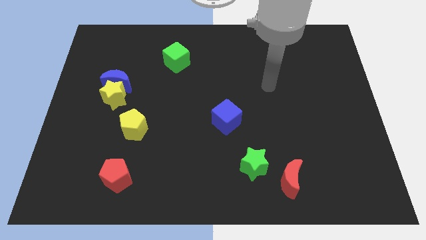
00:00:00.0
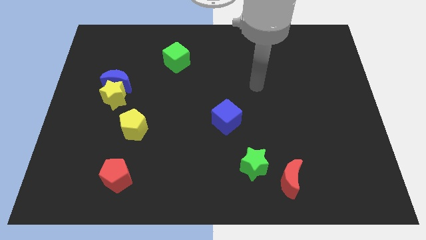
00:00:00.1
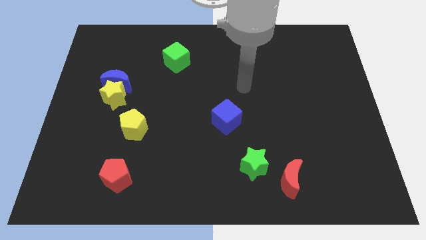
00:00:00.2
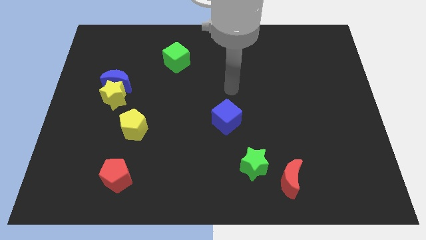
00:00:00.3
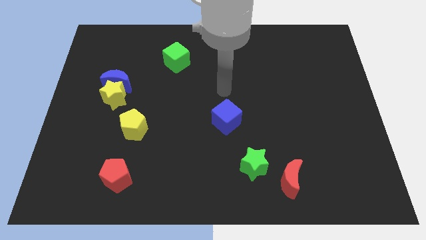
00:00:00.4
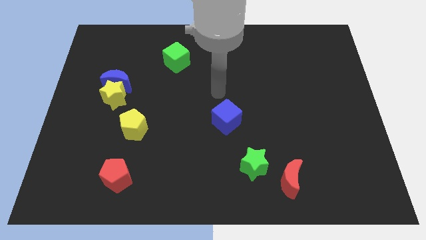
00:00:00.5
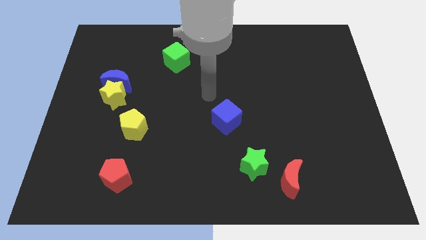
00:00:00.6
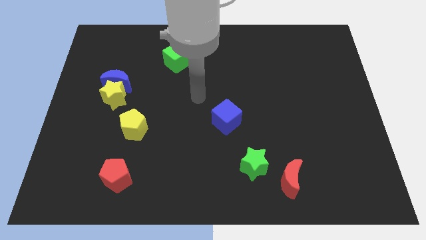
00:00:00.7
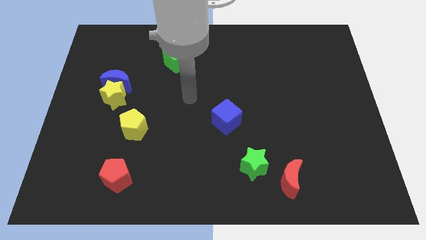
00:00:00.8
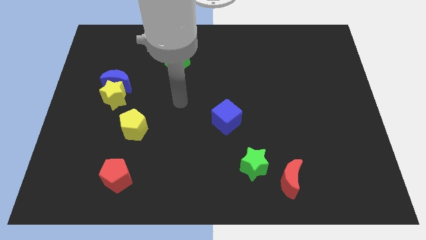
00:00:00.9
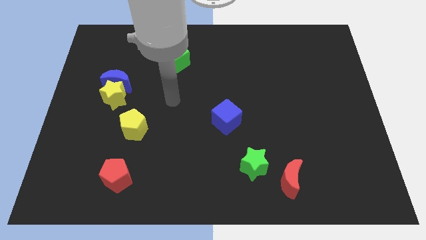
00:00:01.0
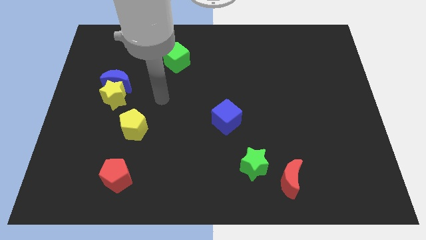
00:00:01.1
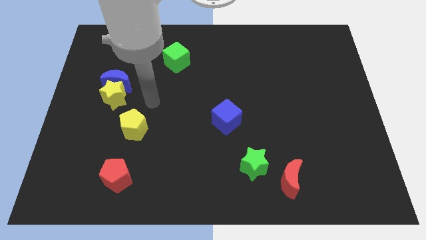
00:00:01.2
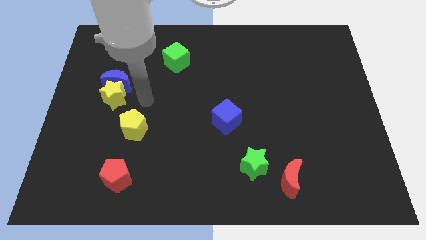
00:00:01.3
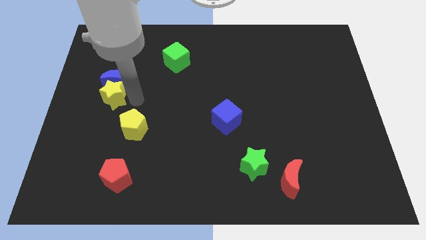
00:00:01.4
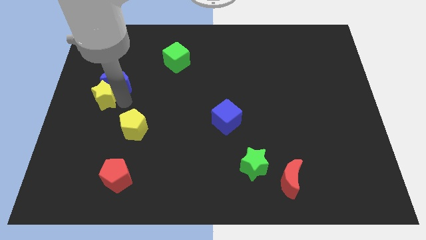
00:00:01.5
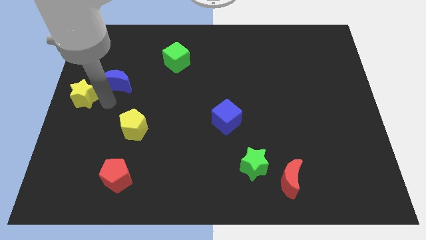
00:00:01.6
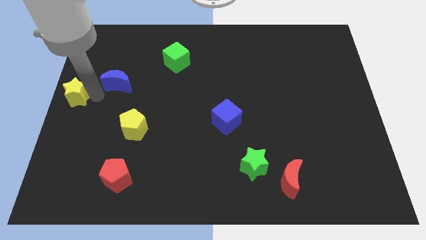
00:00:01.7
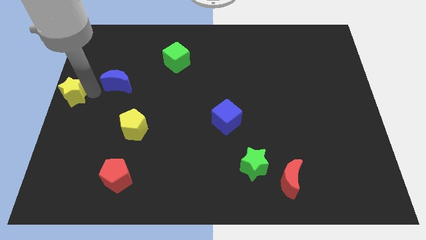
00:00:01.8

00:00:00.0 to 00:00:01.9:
pull the blue moon apart from the yellow star

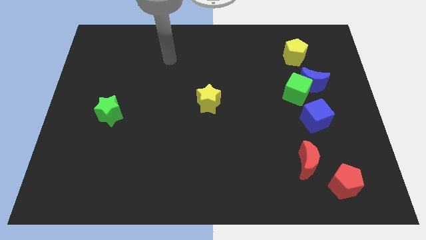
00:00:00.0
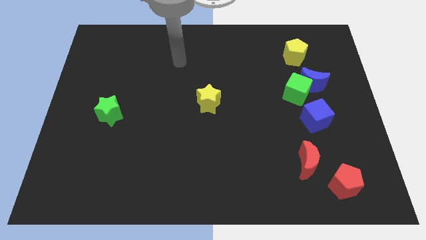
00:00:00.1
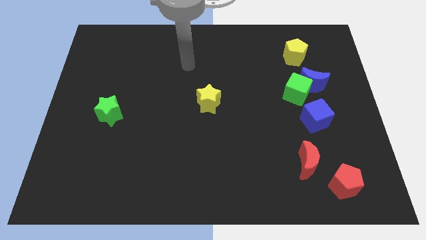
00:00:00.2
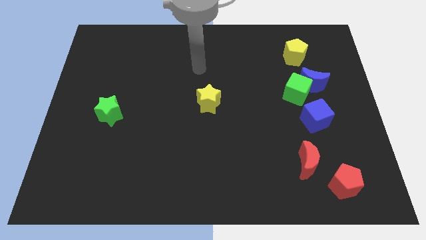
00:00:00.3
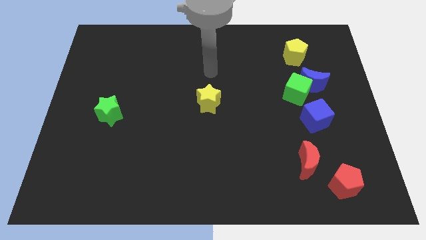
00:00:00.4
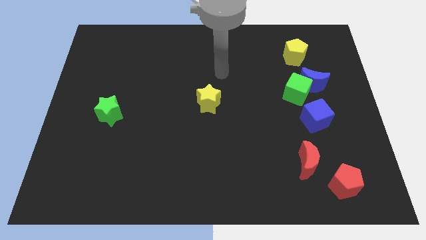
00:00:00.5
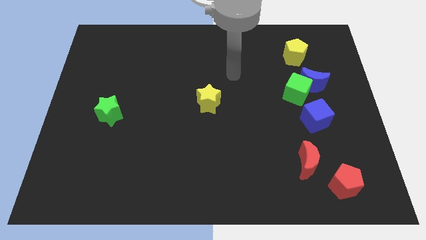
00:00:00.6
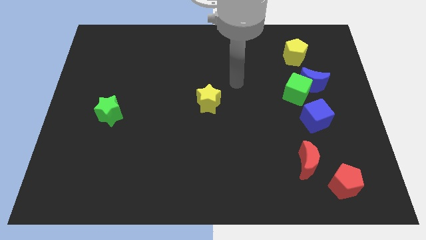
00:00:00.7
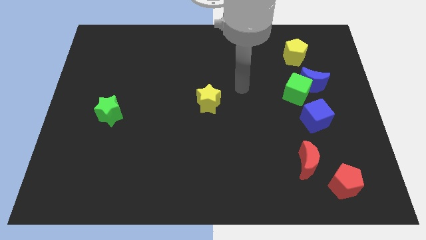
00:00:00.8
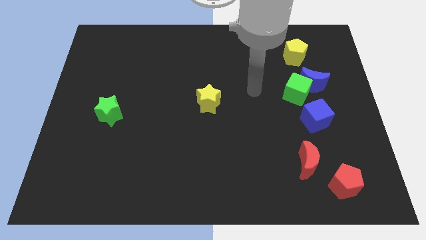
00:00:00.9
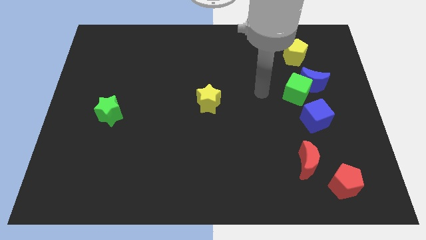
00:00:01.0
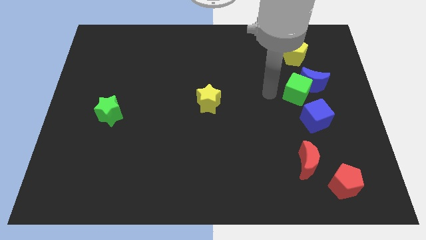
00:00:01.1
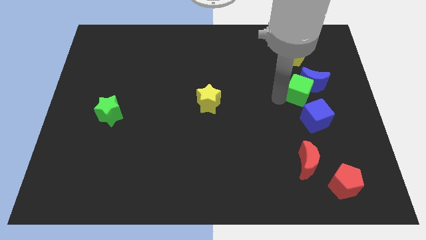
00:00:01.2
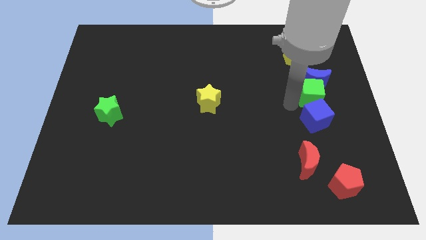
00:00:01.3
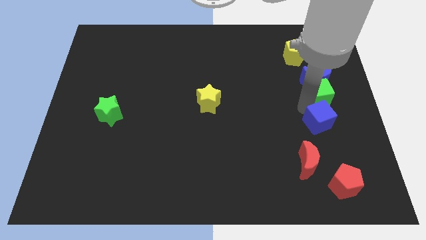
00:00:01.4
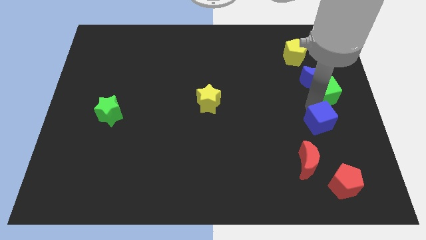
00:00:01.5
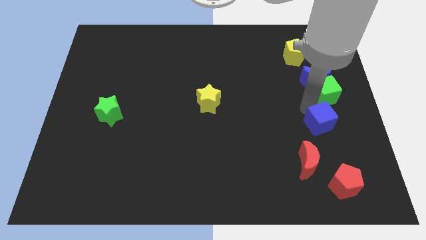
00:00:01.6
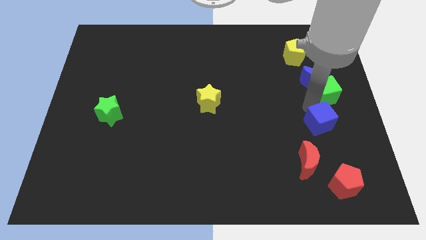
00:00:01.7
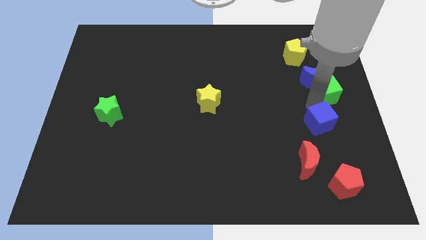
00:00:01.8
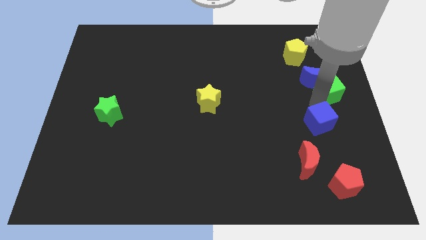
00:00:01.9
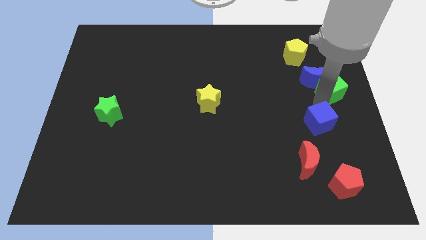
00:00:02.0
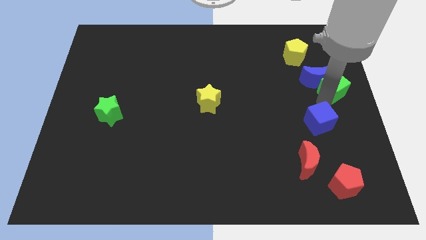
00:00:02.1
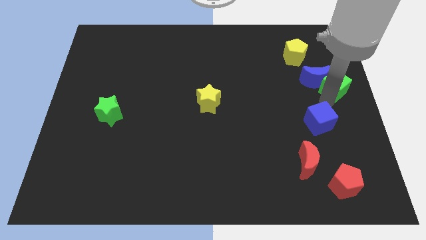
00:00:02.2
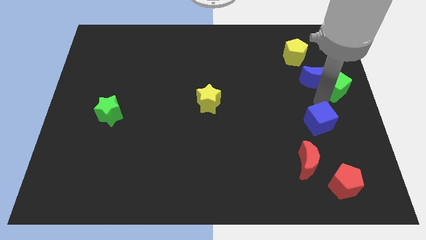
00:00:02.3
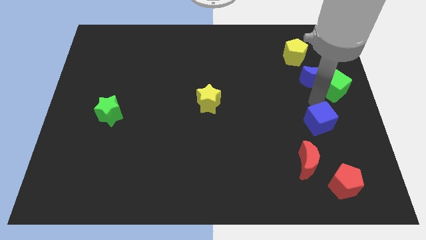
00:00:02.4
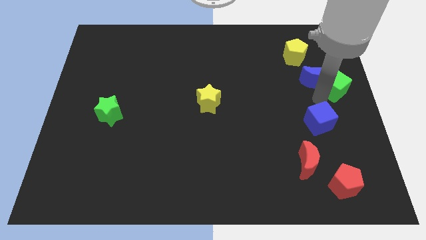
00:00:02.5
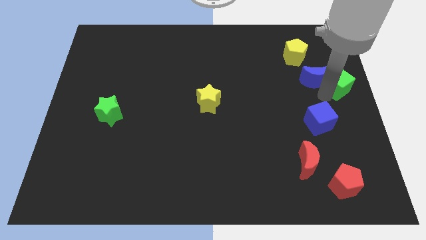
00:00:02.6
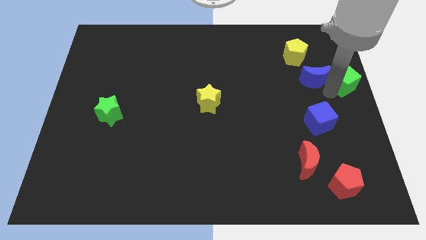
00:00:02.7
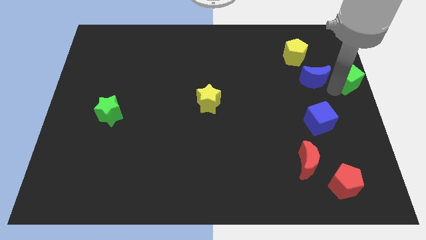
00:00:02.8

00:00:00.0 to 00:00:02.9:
move the green cube away from the blue moon and blue cube

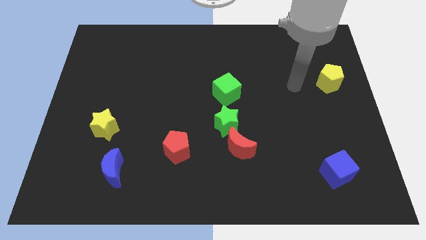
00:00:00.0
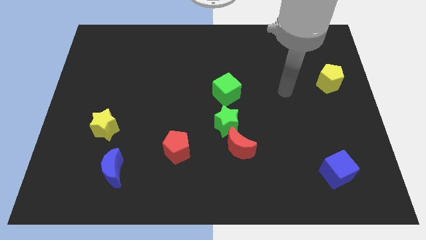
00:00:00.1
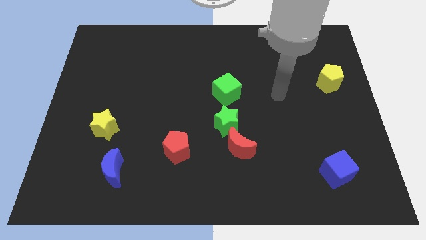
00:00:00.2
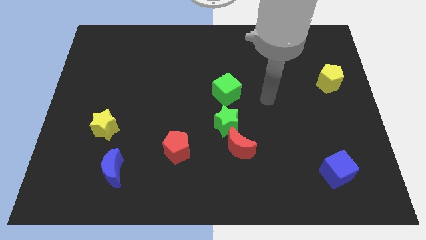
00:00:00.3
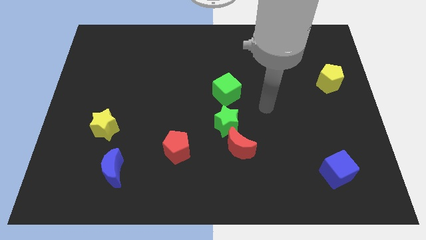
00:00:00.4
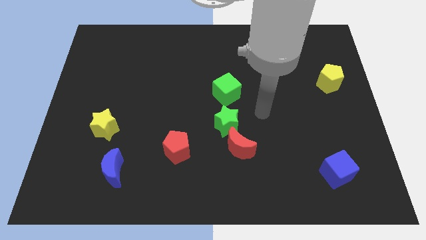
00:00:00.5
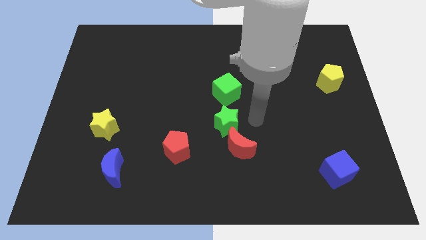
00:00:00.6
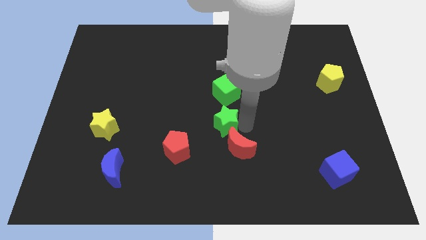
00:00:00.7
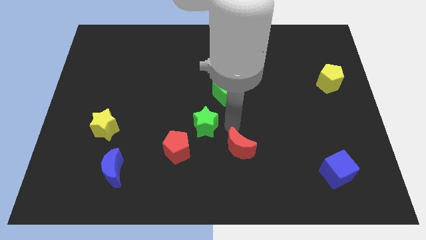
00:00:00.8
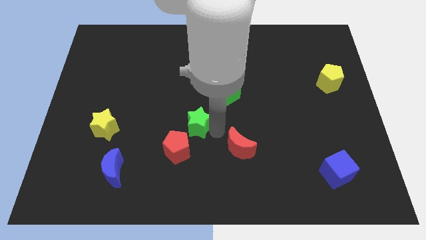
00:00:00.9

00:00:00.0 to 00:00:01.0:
separate the red moon from the green star

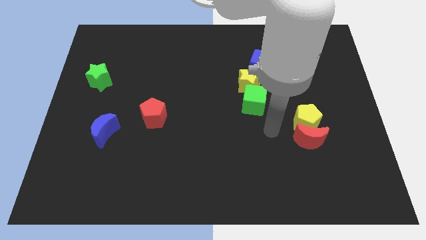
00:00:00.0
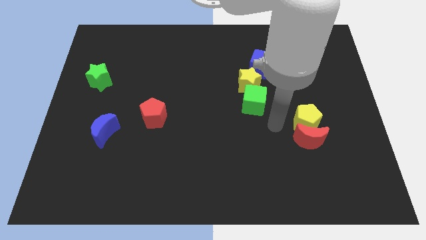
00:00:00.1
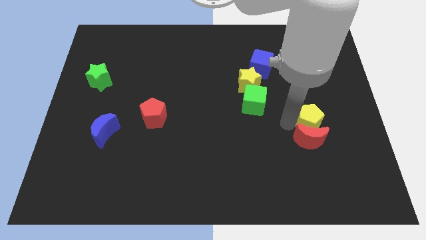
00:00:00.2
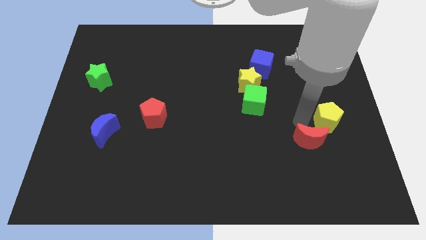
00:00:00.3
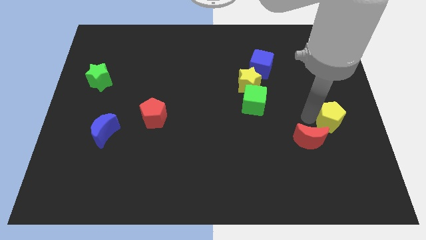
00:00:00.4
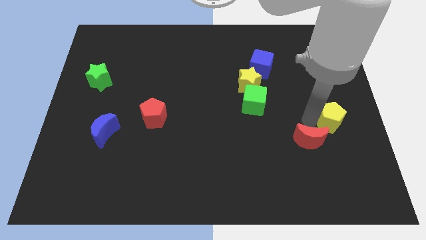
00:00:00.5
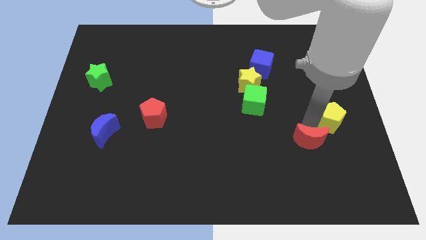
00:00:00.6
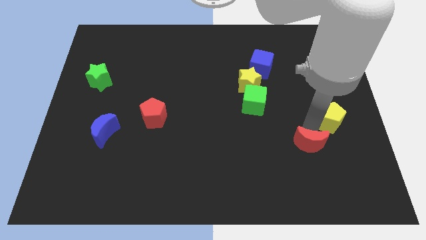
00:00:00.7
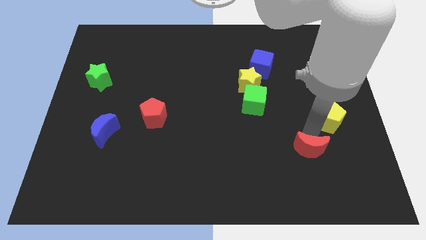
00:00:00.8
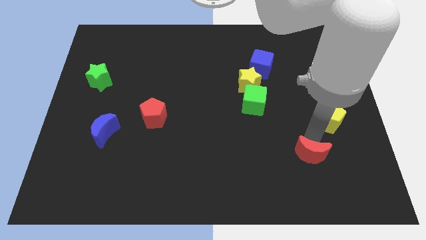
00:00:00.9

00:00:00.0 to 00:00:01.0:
pull the red moon apart from the yellow pentagon

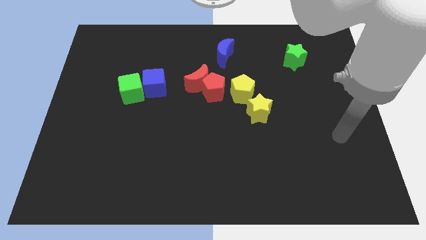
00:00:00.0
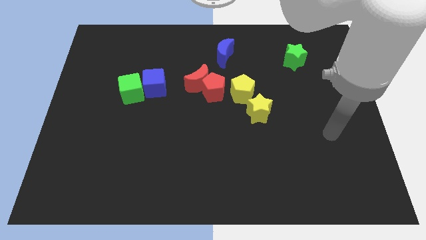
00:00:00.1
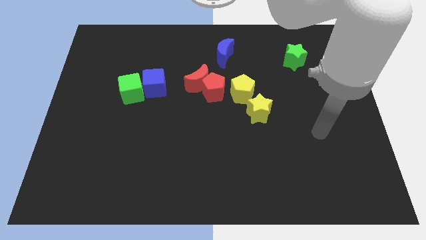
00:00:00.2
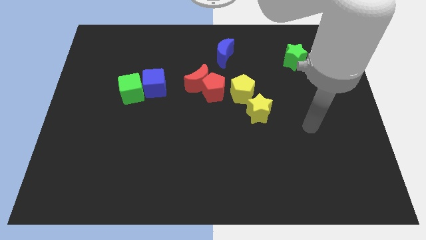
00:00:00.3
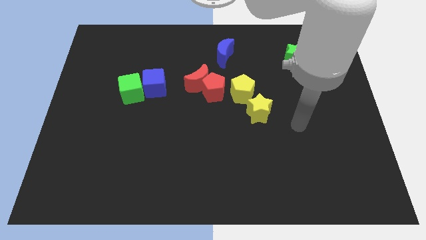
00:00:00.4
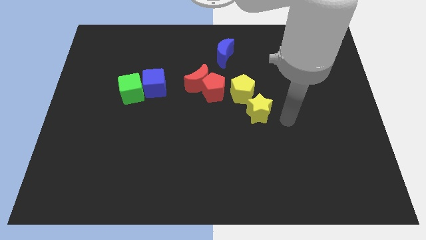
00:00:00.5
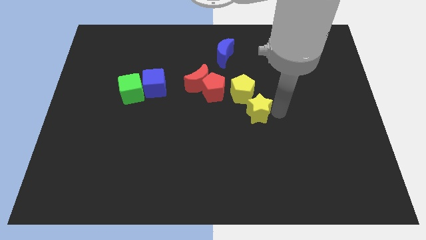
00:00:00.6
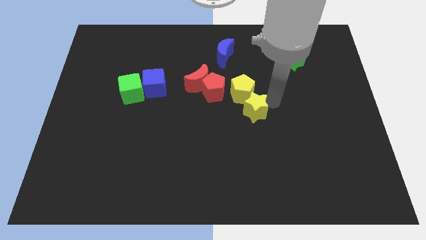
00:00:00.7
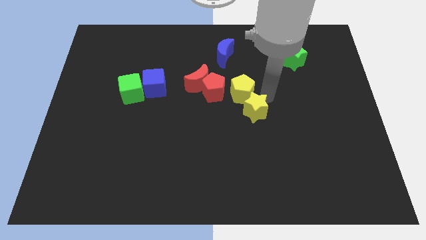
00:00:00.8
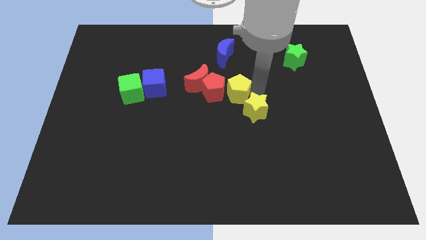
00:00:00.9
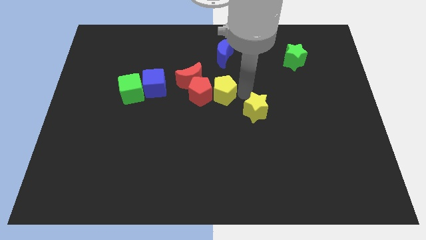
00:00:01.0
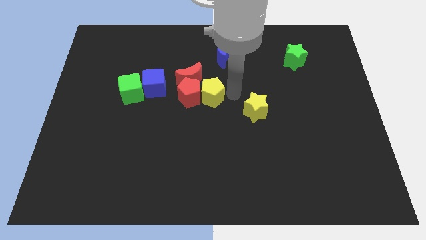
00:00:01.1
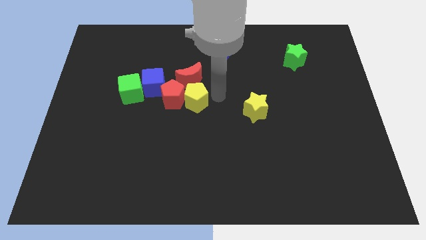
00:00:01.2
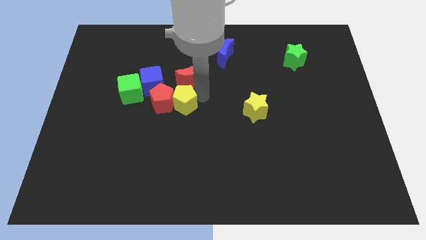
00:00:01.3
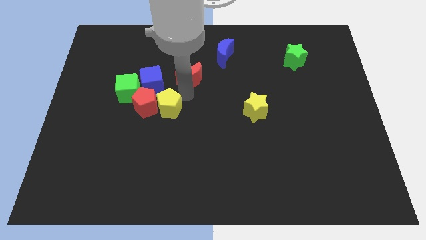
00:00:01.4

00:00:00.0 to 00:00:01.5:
pull the red moon apart from the red pentagon

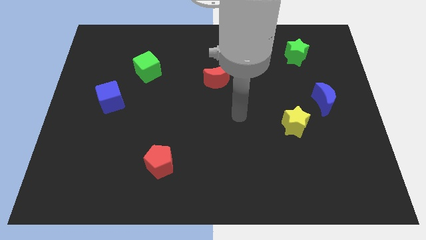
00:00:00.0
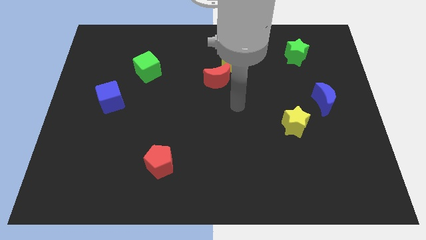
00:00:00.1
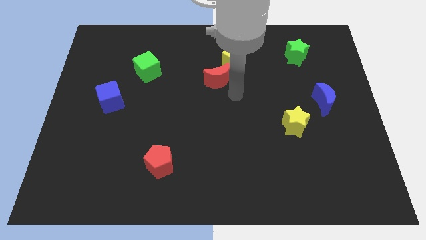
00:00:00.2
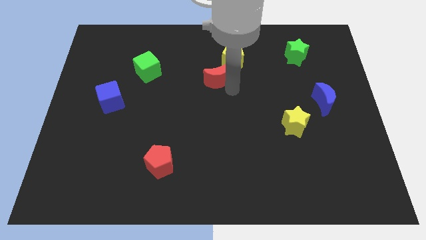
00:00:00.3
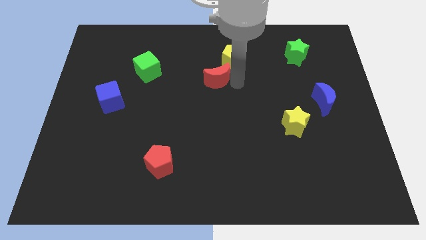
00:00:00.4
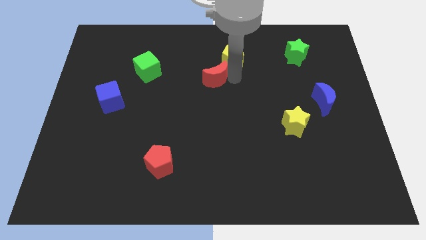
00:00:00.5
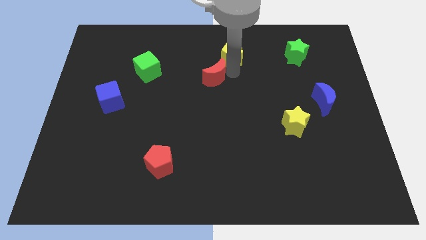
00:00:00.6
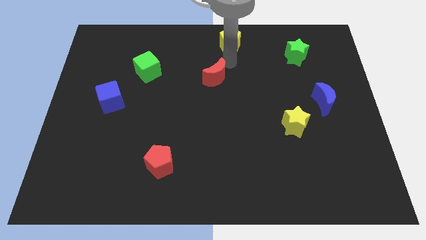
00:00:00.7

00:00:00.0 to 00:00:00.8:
separate the red moon from the yellow pentagon

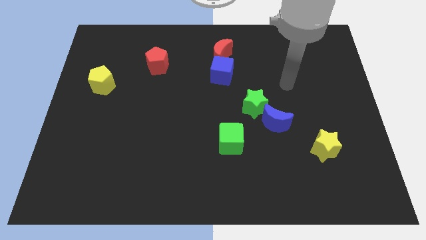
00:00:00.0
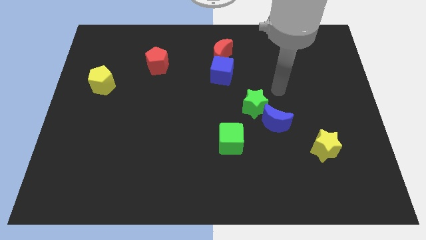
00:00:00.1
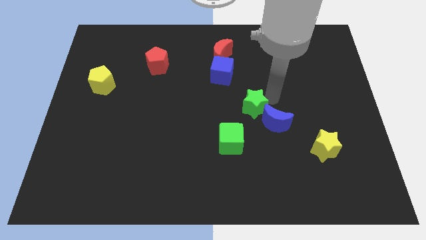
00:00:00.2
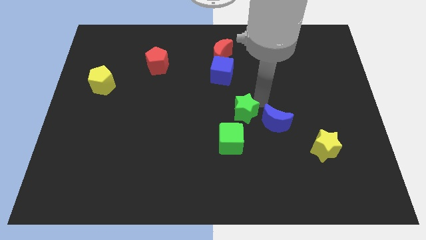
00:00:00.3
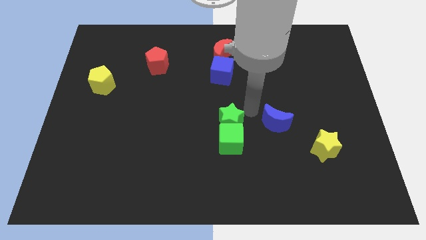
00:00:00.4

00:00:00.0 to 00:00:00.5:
move the blue moon away from the green star
